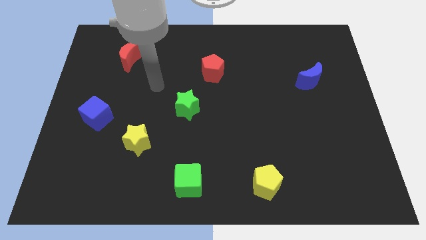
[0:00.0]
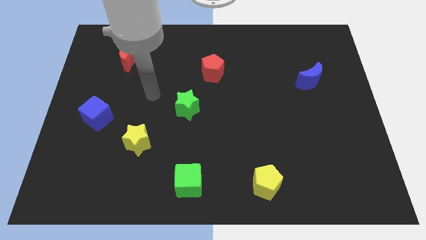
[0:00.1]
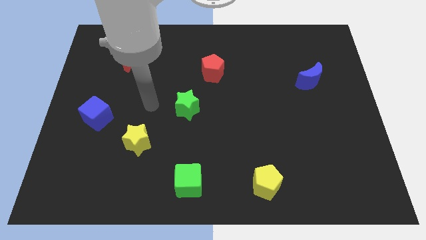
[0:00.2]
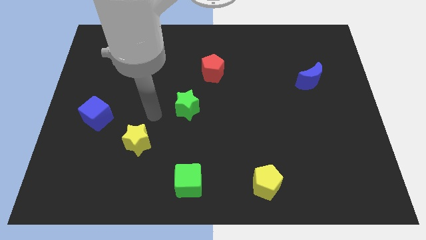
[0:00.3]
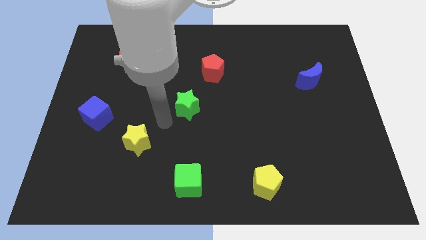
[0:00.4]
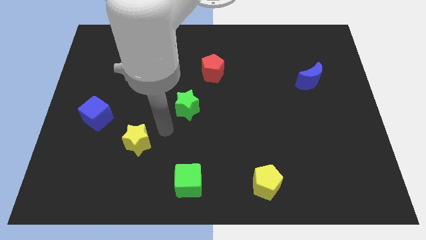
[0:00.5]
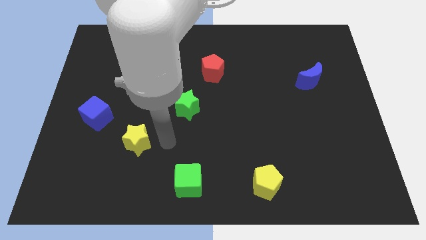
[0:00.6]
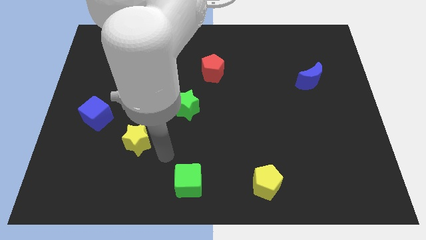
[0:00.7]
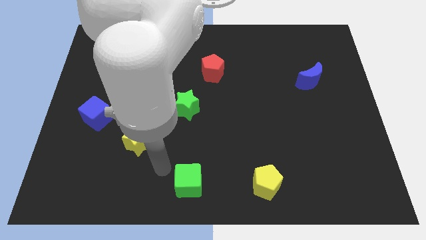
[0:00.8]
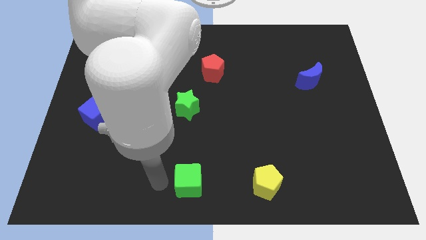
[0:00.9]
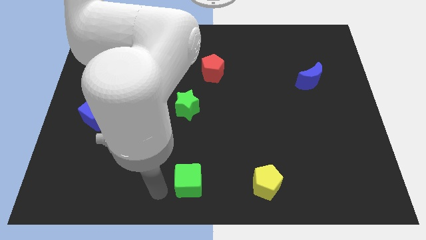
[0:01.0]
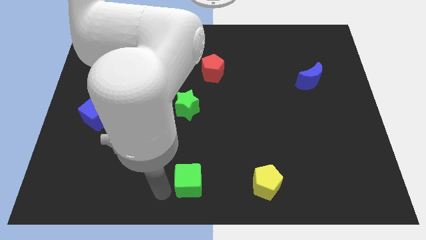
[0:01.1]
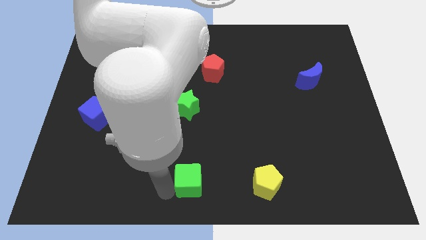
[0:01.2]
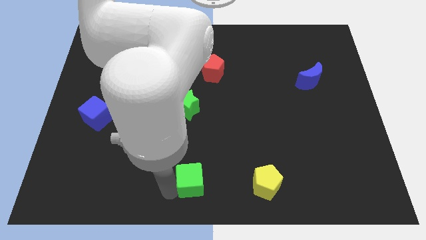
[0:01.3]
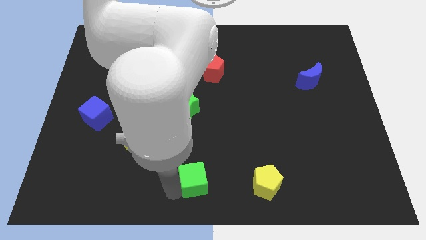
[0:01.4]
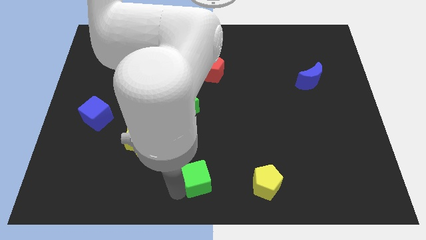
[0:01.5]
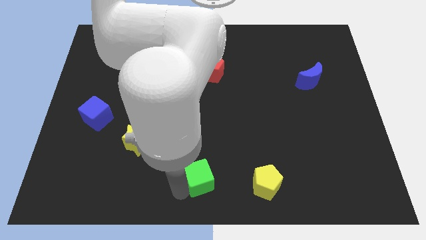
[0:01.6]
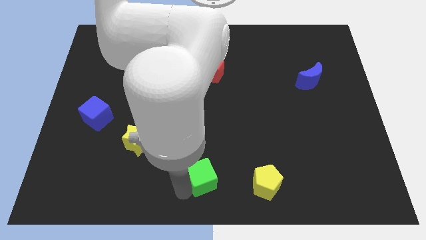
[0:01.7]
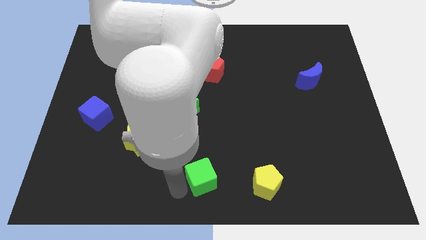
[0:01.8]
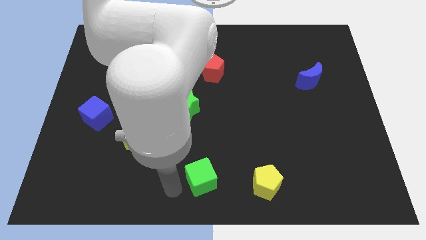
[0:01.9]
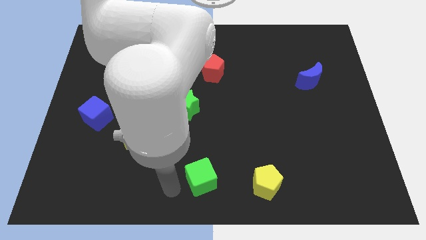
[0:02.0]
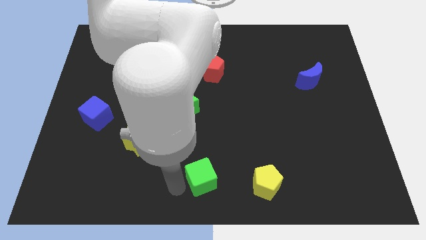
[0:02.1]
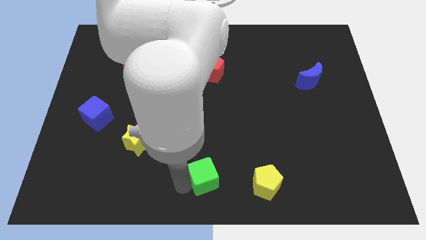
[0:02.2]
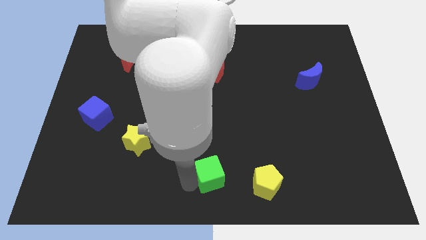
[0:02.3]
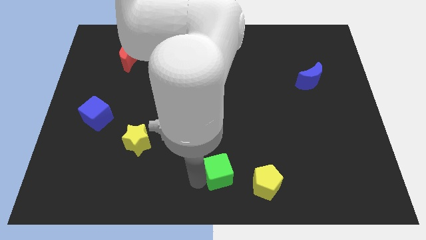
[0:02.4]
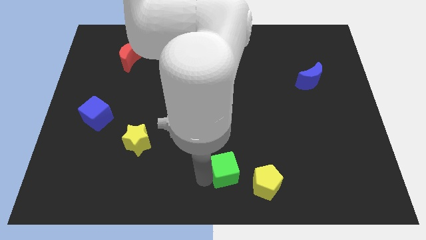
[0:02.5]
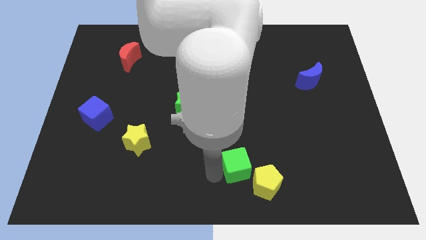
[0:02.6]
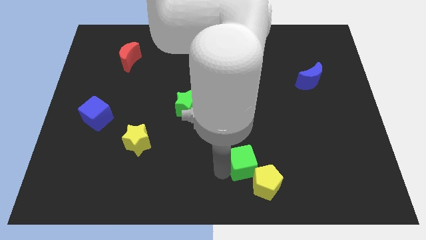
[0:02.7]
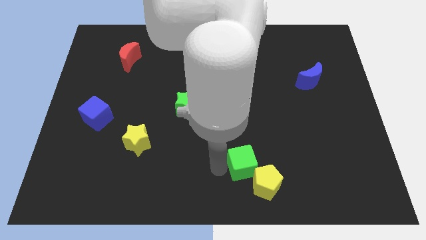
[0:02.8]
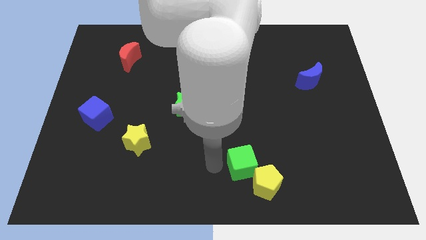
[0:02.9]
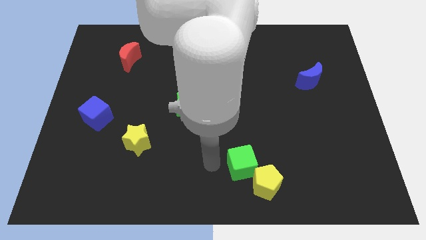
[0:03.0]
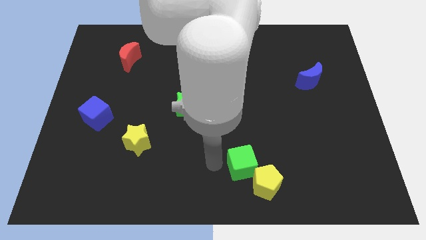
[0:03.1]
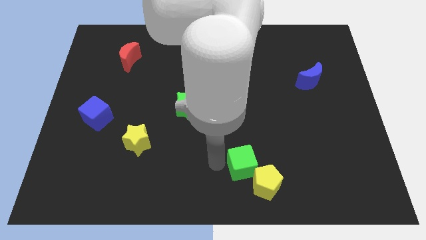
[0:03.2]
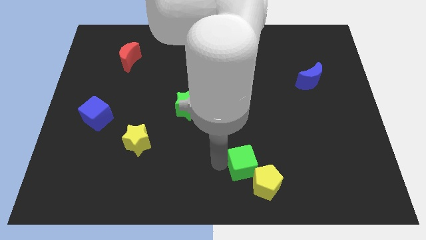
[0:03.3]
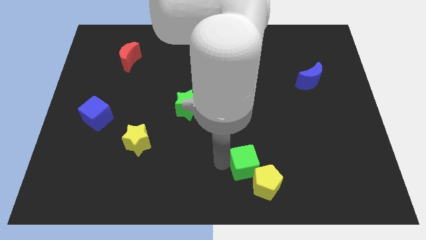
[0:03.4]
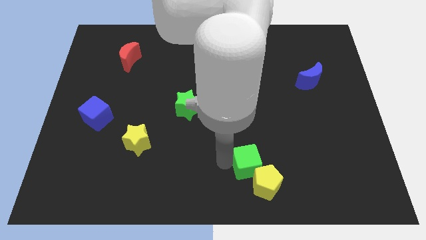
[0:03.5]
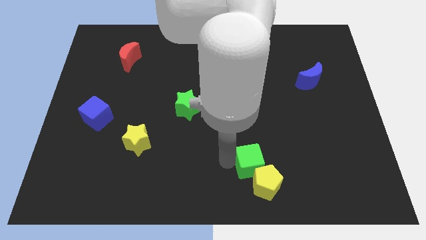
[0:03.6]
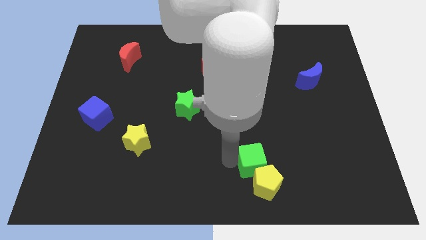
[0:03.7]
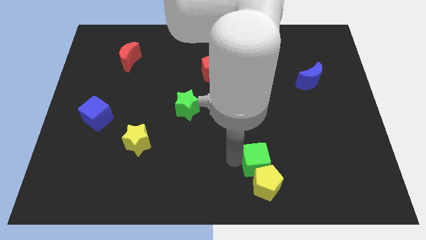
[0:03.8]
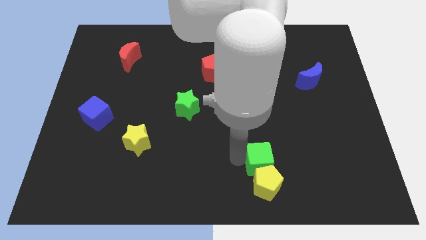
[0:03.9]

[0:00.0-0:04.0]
push the green cube diagonally up and to the right of the yellow pentagon

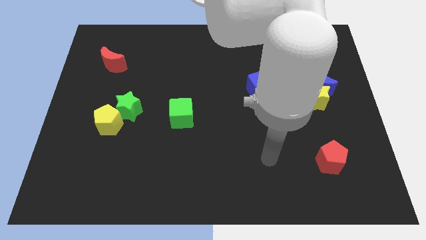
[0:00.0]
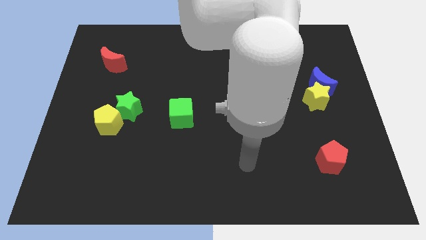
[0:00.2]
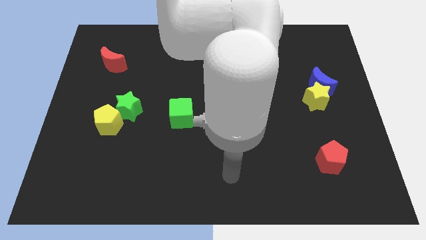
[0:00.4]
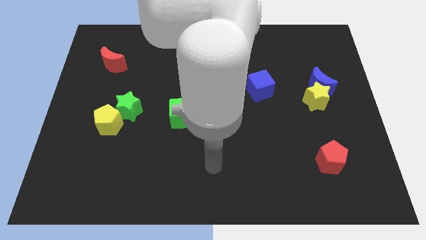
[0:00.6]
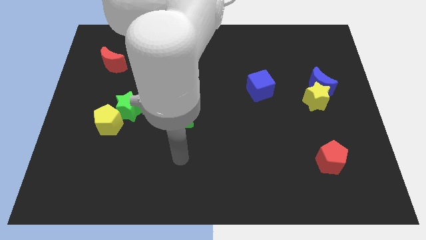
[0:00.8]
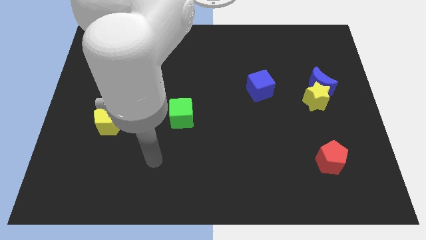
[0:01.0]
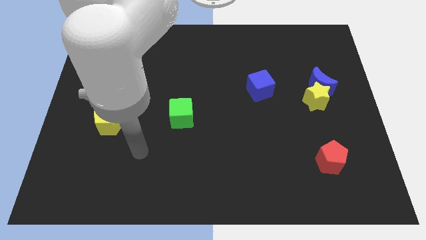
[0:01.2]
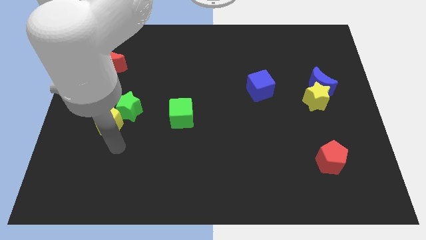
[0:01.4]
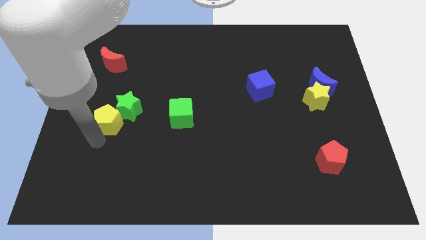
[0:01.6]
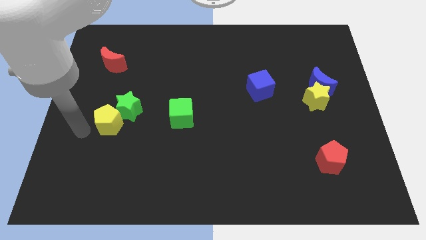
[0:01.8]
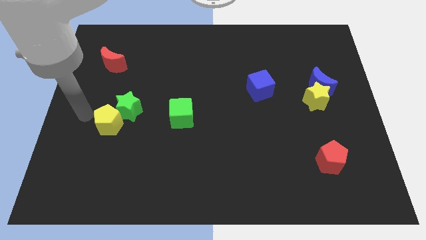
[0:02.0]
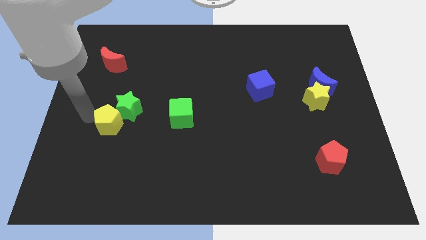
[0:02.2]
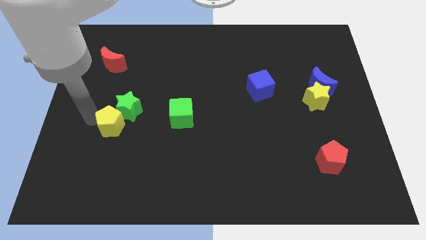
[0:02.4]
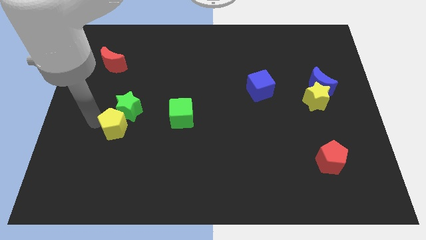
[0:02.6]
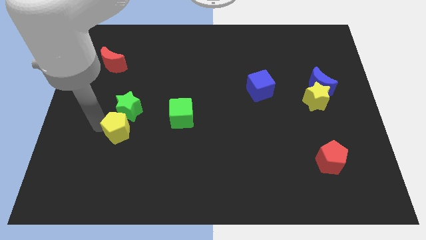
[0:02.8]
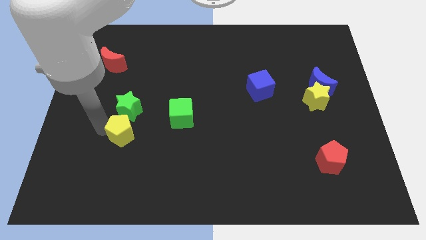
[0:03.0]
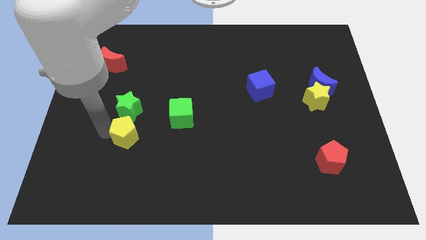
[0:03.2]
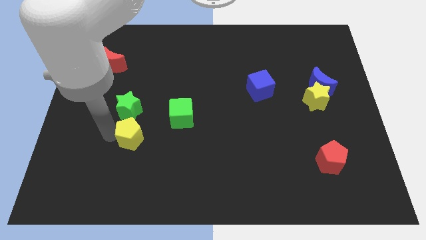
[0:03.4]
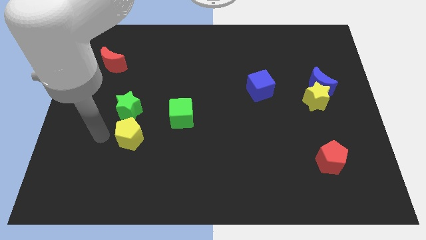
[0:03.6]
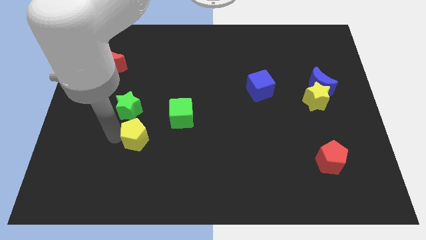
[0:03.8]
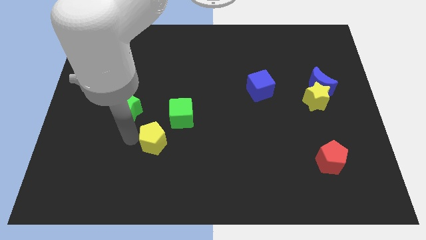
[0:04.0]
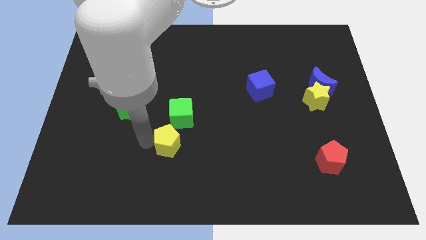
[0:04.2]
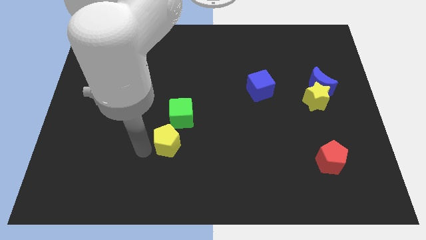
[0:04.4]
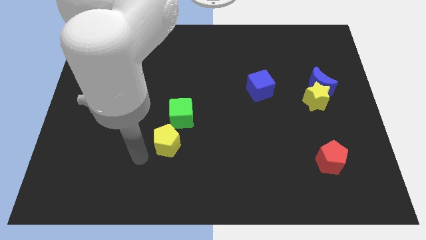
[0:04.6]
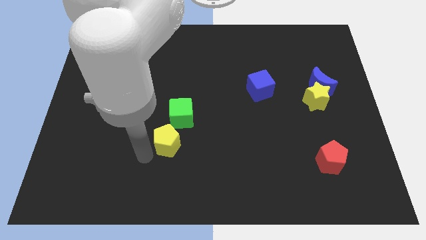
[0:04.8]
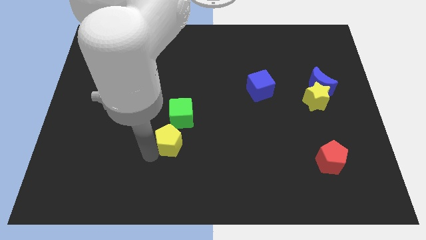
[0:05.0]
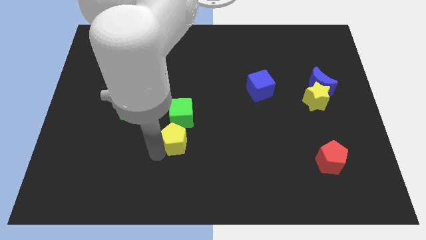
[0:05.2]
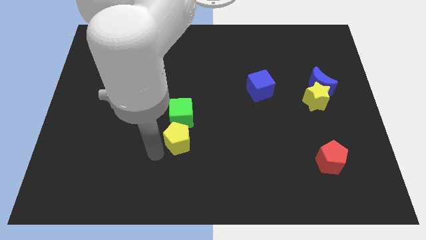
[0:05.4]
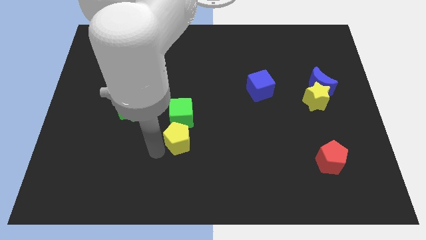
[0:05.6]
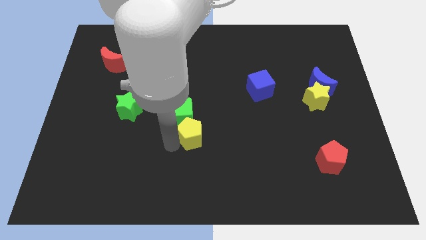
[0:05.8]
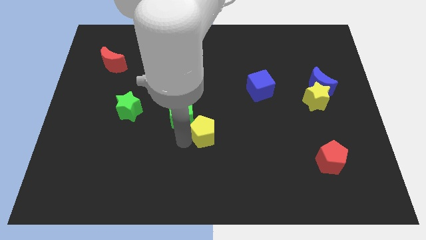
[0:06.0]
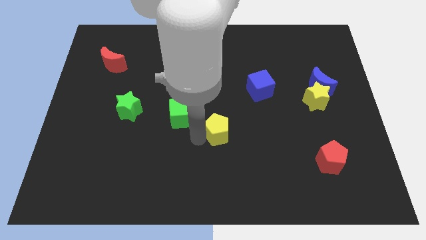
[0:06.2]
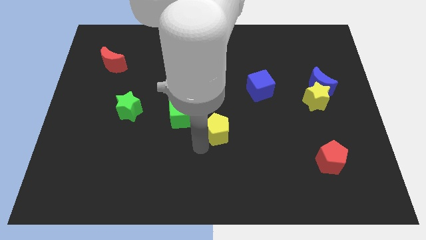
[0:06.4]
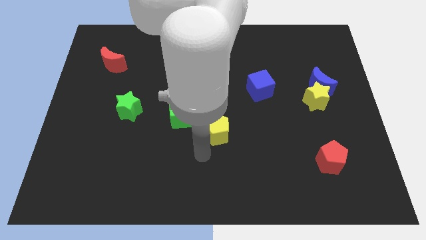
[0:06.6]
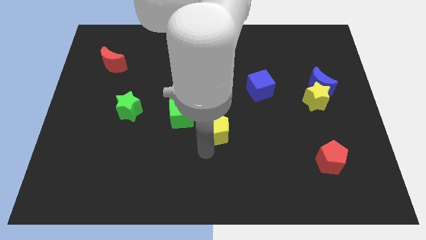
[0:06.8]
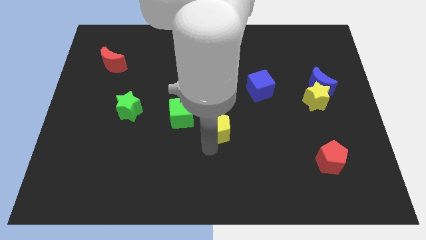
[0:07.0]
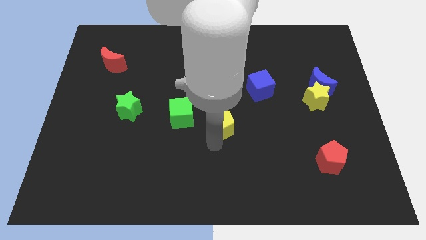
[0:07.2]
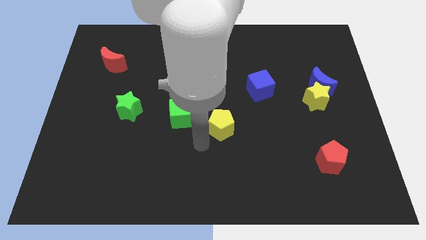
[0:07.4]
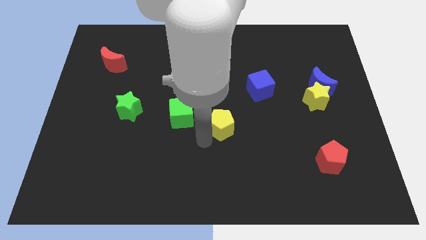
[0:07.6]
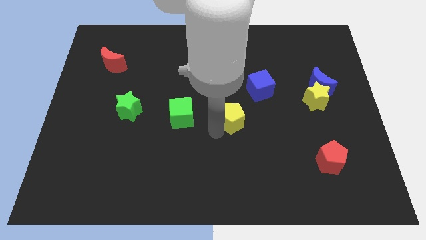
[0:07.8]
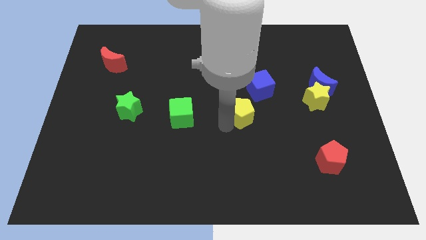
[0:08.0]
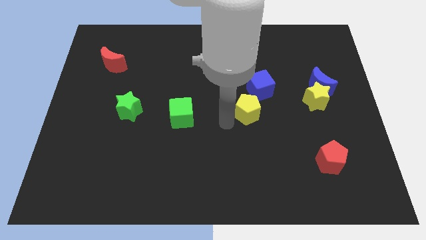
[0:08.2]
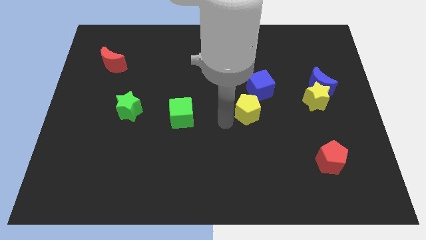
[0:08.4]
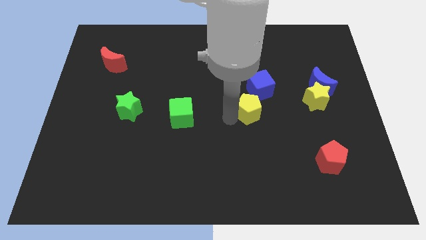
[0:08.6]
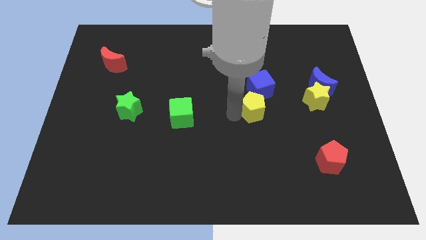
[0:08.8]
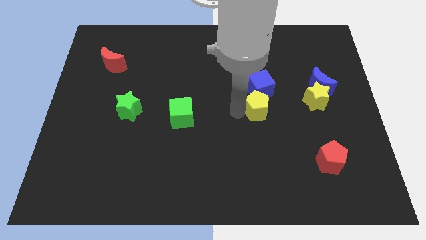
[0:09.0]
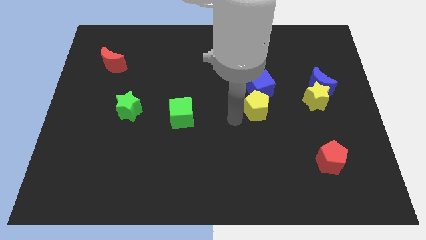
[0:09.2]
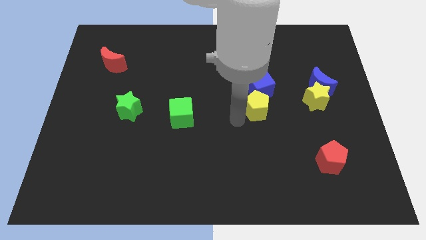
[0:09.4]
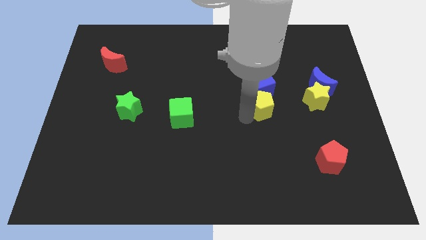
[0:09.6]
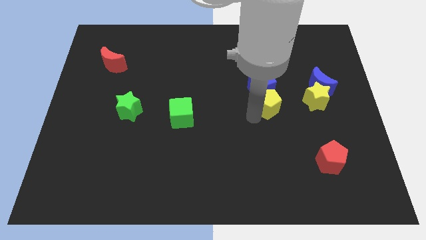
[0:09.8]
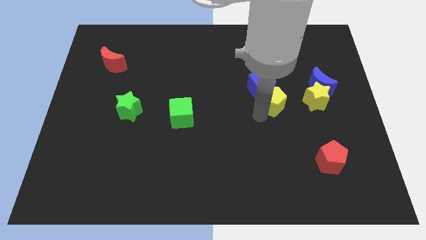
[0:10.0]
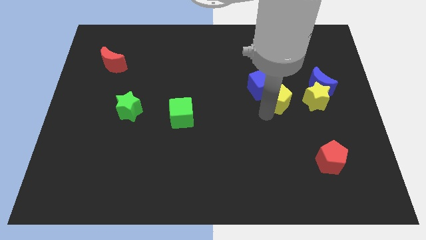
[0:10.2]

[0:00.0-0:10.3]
move the yellow pentagon to the left side of the blue moon
